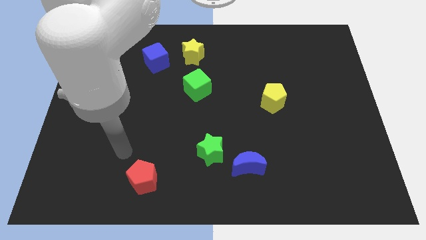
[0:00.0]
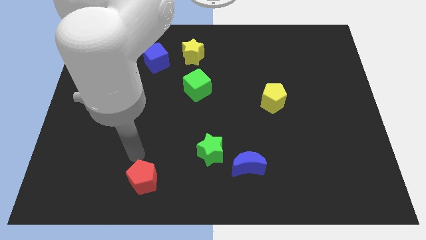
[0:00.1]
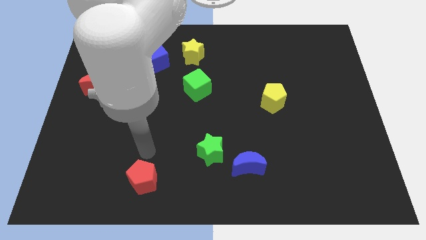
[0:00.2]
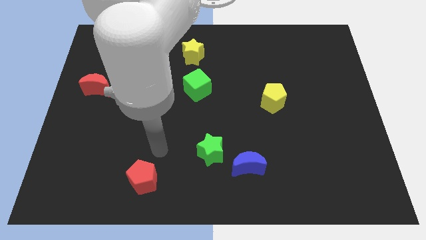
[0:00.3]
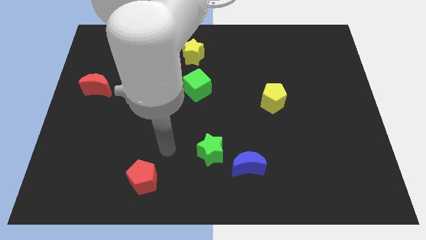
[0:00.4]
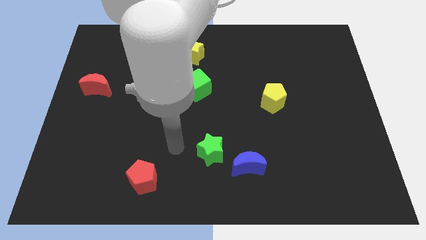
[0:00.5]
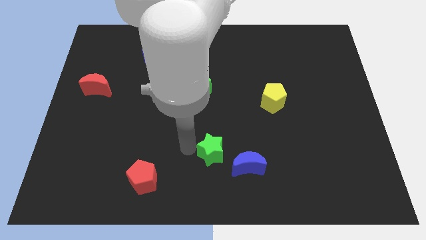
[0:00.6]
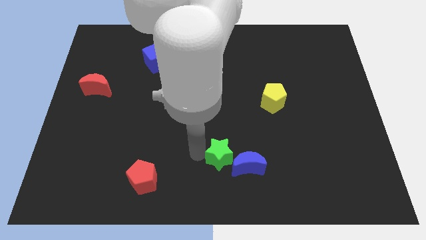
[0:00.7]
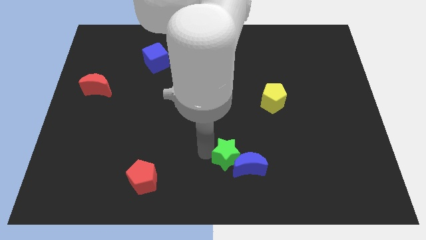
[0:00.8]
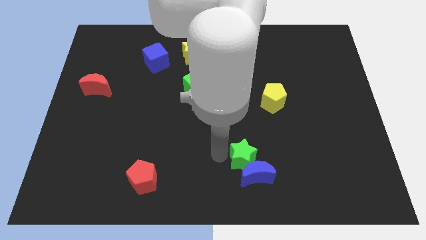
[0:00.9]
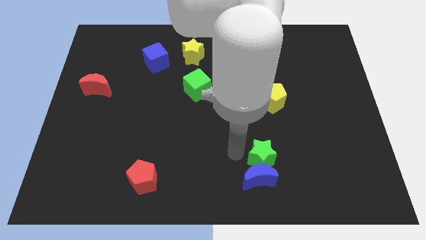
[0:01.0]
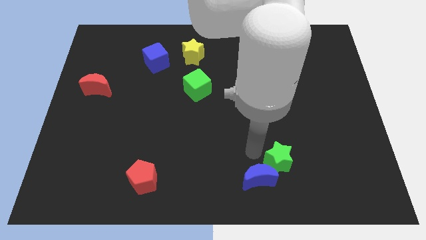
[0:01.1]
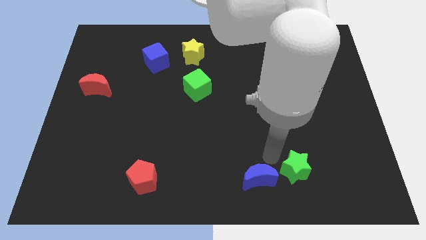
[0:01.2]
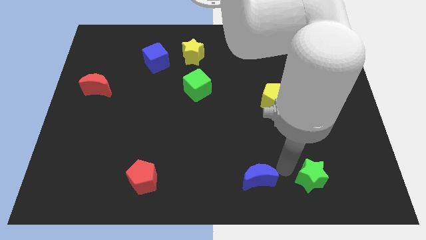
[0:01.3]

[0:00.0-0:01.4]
separate the blue moon from the green star

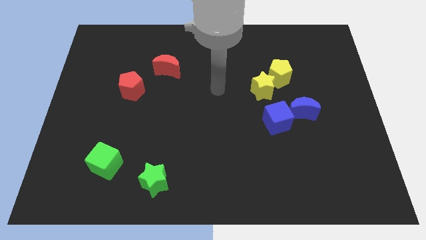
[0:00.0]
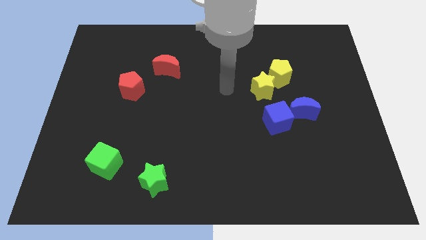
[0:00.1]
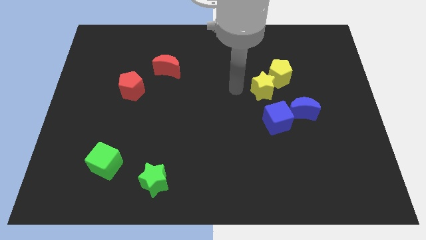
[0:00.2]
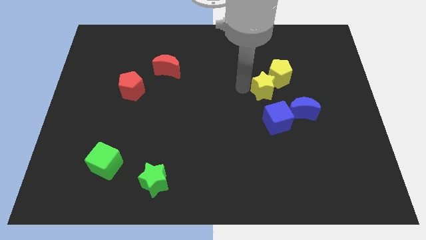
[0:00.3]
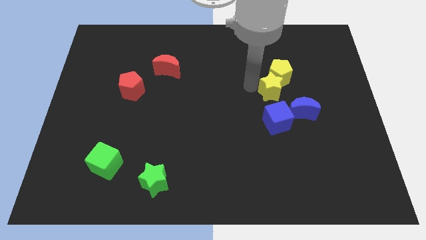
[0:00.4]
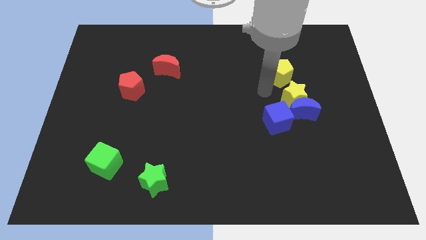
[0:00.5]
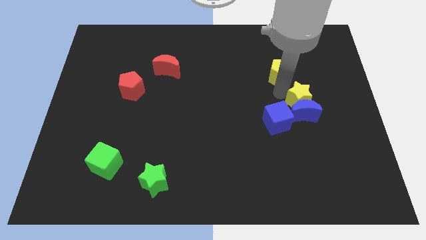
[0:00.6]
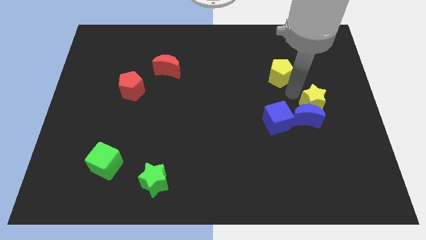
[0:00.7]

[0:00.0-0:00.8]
separate the yellow pentagon from the yellow star

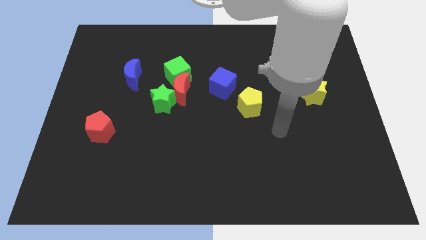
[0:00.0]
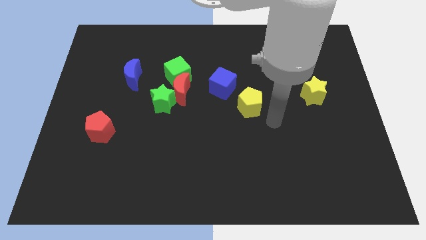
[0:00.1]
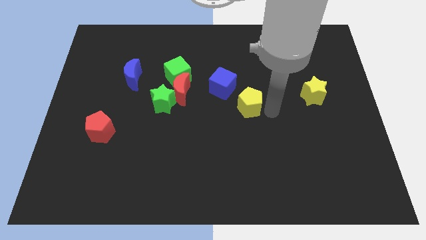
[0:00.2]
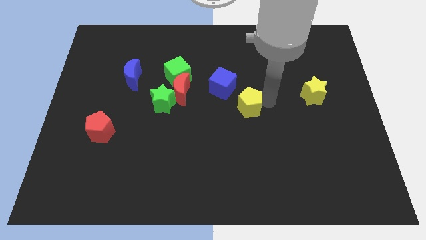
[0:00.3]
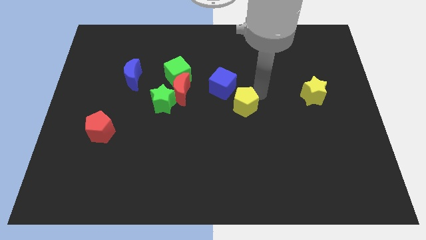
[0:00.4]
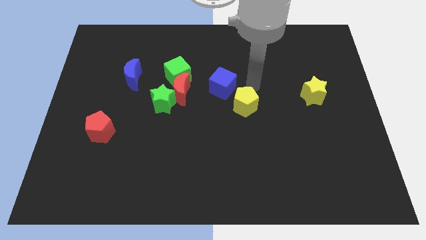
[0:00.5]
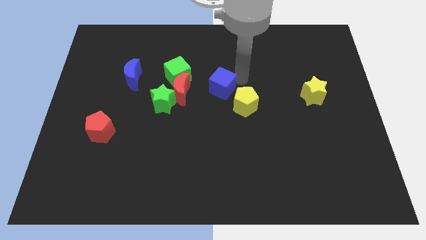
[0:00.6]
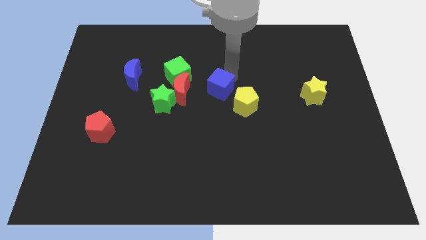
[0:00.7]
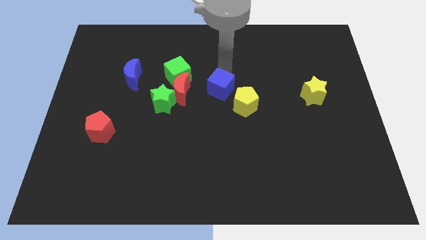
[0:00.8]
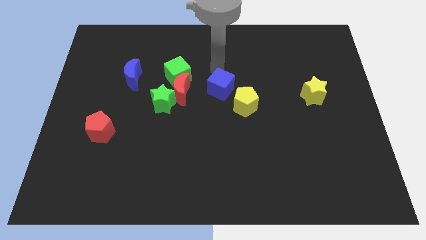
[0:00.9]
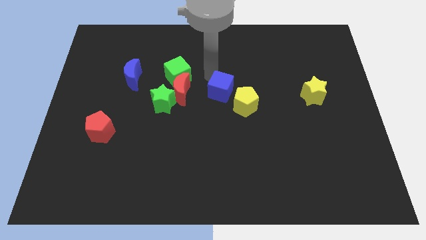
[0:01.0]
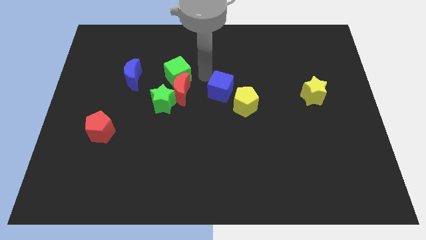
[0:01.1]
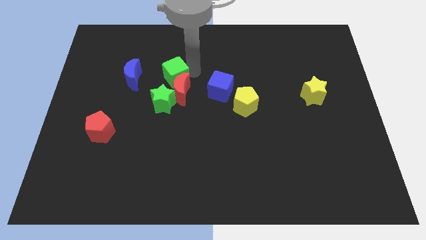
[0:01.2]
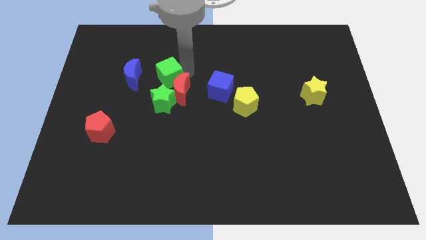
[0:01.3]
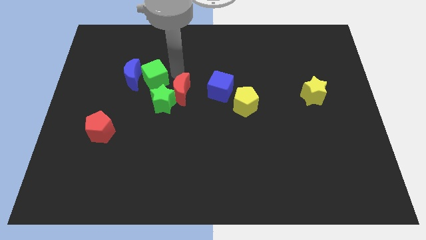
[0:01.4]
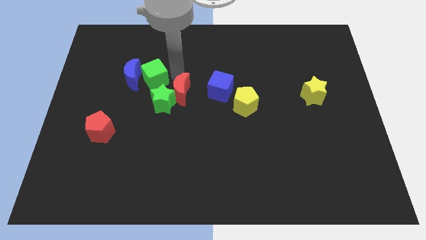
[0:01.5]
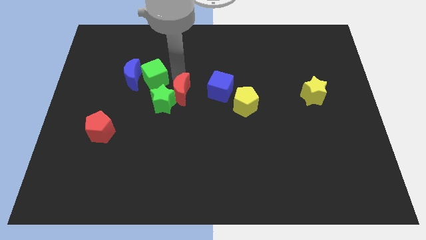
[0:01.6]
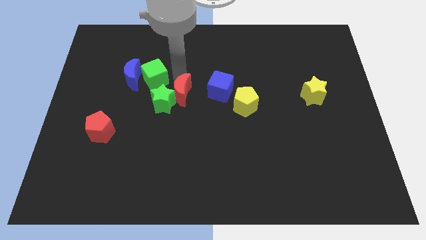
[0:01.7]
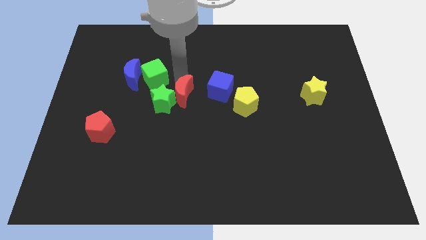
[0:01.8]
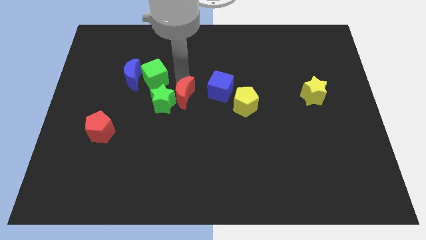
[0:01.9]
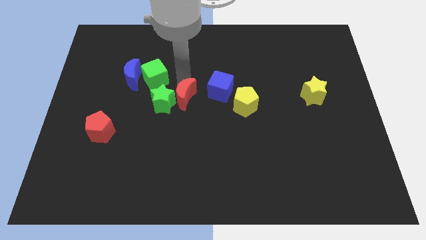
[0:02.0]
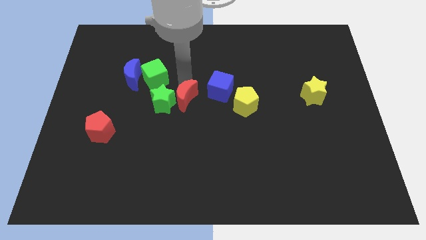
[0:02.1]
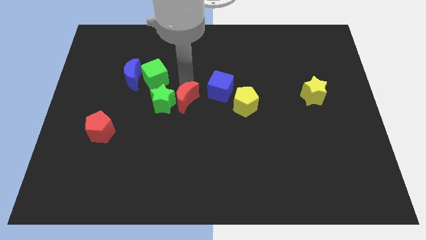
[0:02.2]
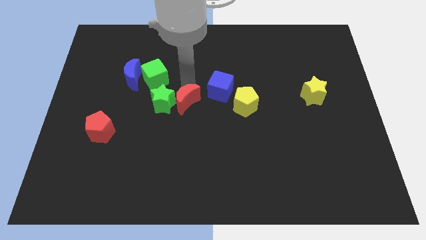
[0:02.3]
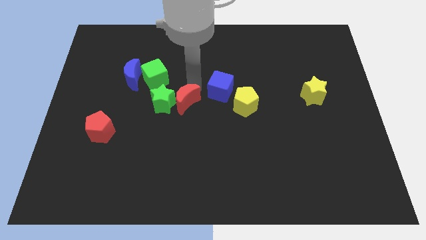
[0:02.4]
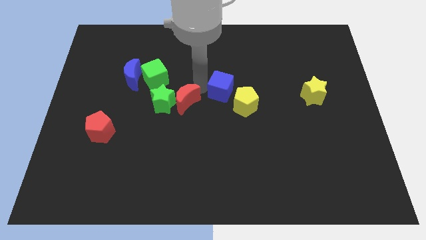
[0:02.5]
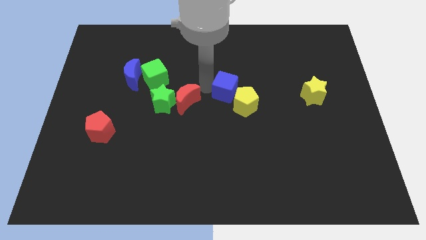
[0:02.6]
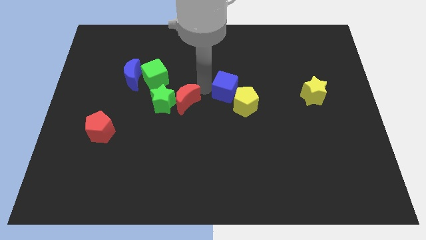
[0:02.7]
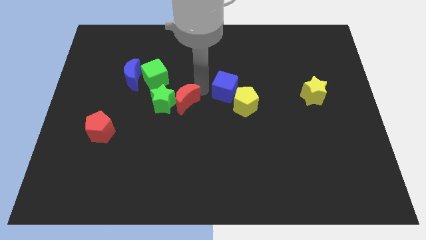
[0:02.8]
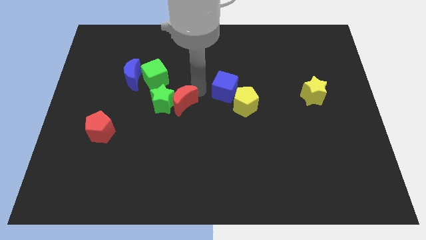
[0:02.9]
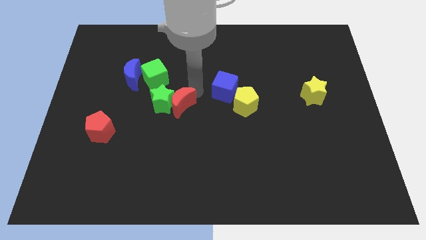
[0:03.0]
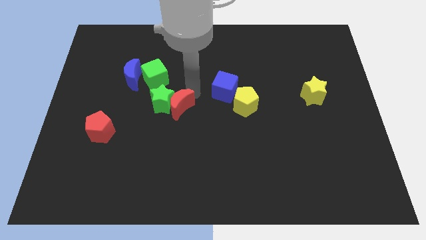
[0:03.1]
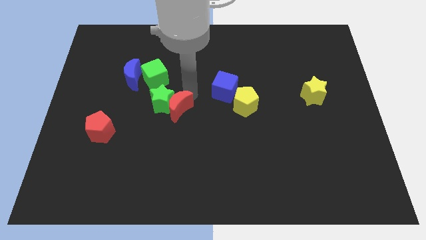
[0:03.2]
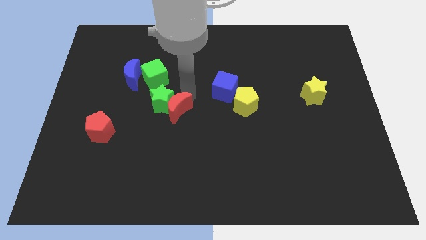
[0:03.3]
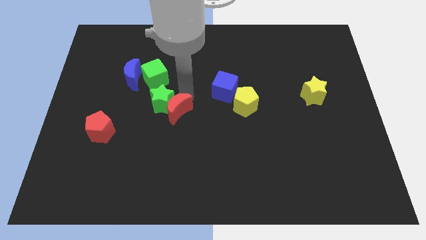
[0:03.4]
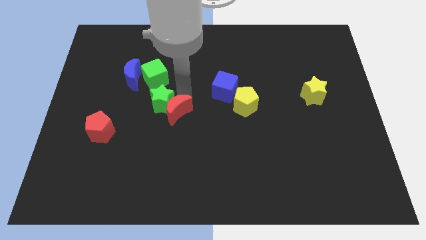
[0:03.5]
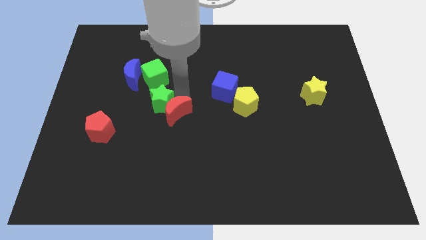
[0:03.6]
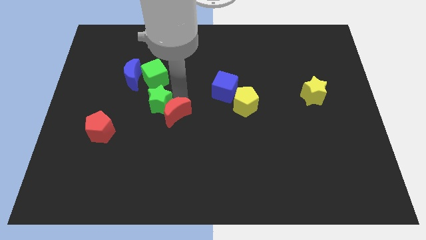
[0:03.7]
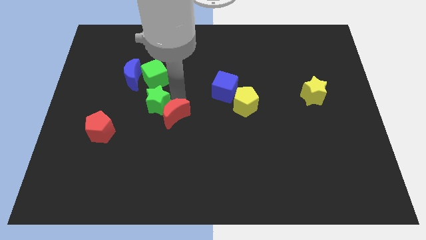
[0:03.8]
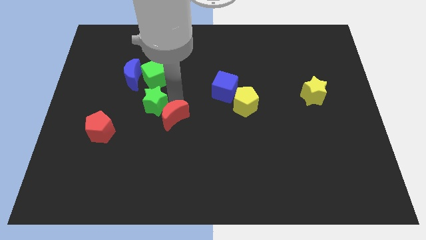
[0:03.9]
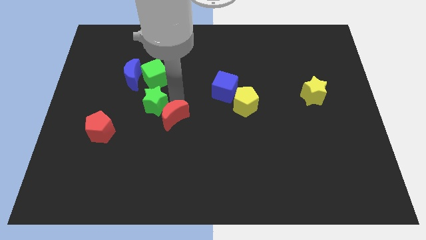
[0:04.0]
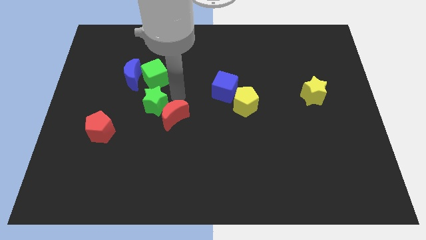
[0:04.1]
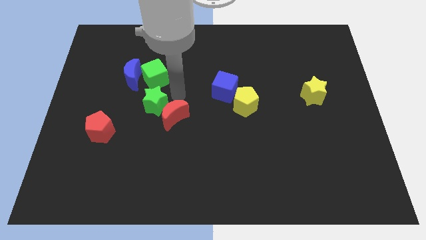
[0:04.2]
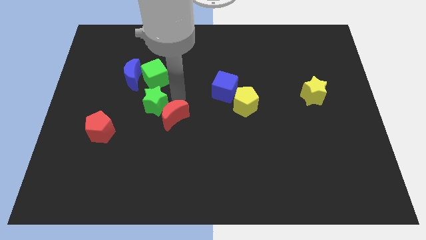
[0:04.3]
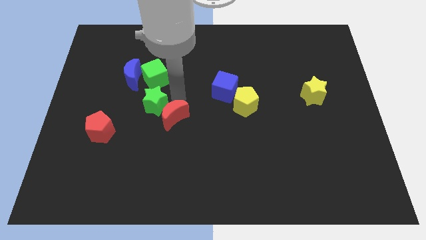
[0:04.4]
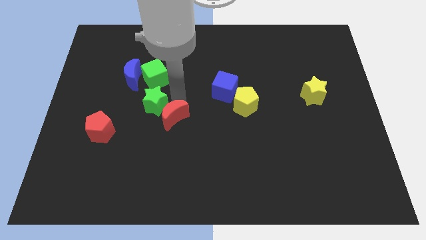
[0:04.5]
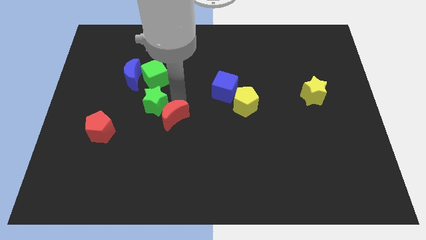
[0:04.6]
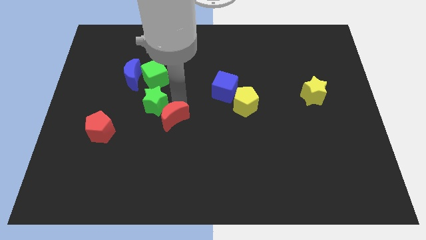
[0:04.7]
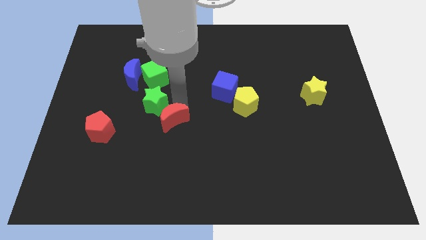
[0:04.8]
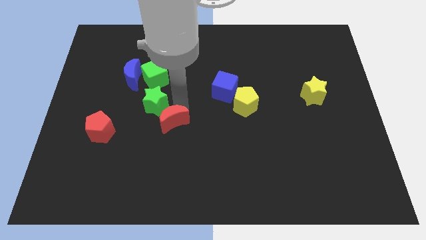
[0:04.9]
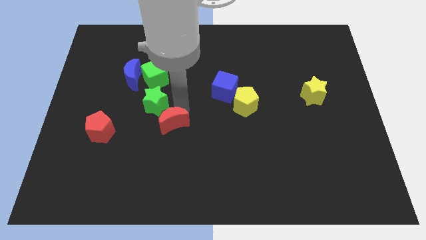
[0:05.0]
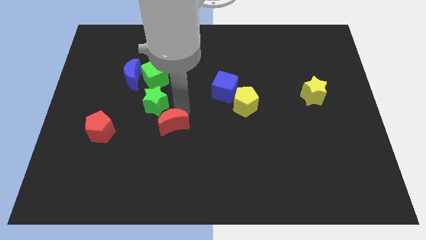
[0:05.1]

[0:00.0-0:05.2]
pull the red moon apart from the green star, green cube, and blue cube

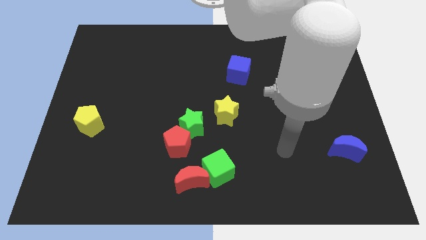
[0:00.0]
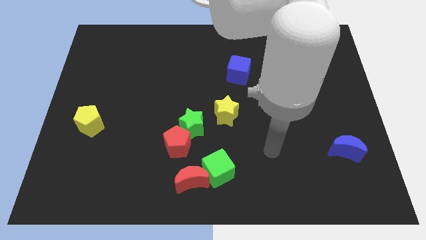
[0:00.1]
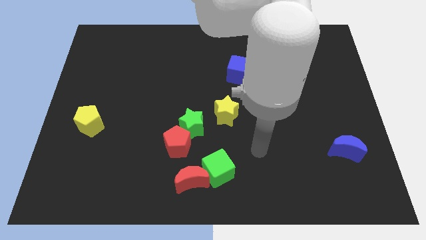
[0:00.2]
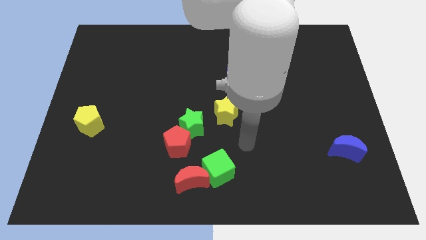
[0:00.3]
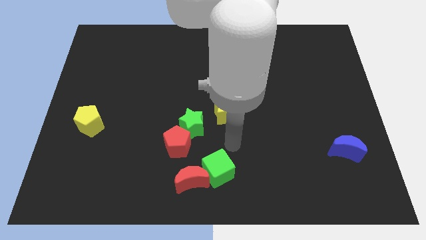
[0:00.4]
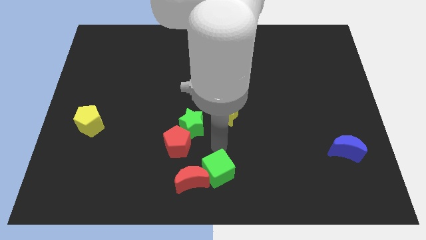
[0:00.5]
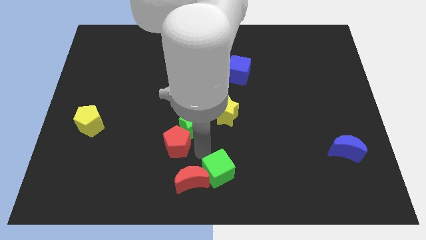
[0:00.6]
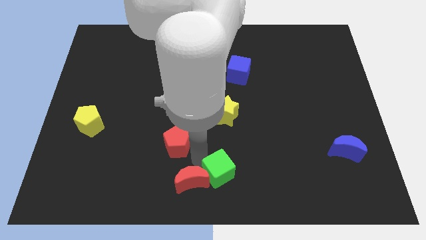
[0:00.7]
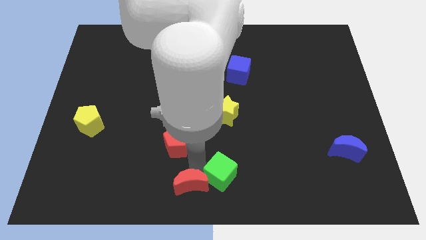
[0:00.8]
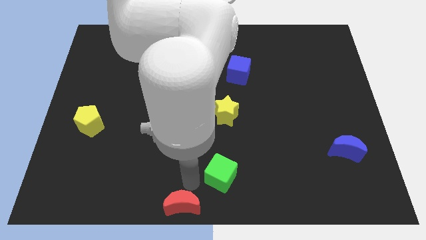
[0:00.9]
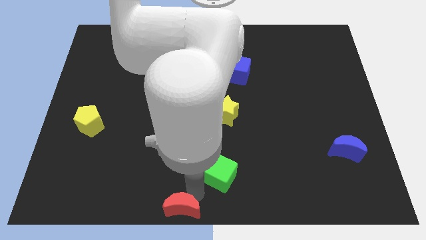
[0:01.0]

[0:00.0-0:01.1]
pull the green cube apart from the red moon

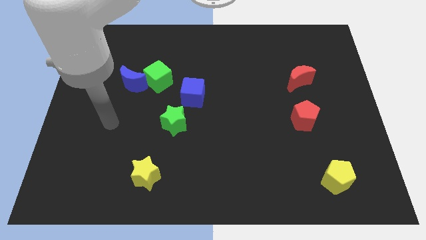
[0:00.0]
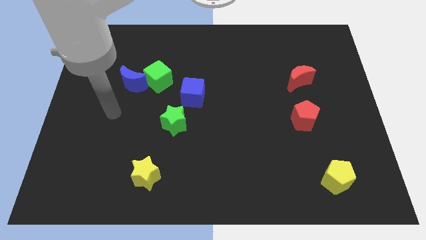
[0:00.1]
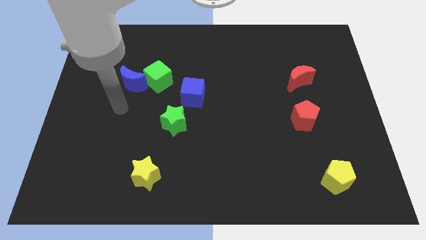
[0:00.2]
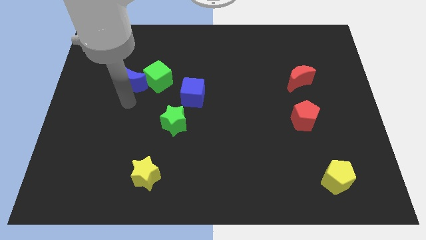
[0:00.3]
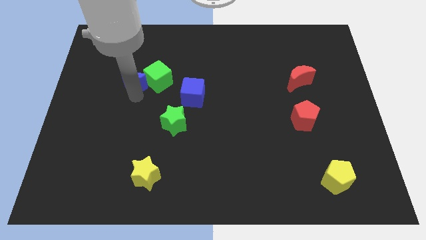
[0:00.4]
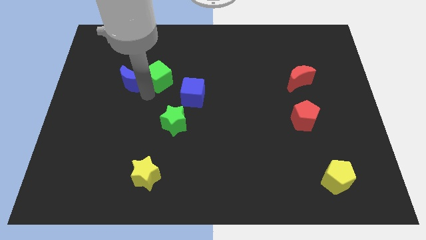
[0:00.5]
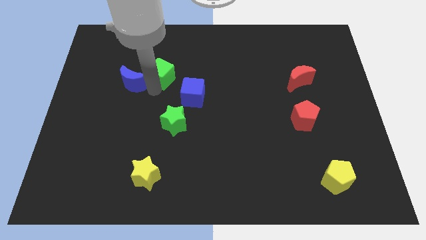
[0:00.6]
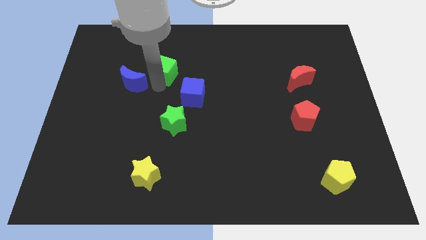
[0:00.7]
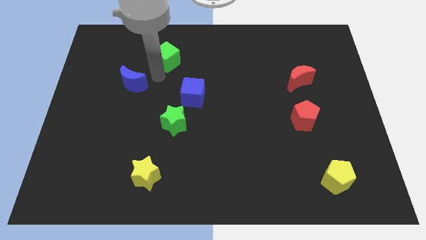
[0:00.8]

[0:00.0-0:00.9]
separate the blue moon from the green cube
